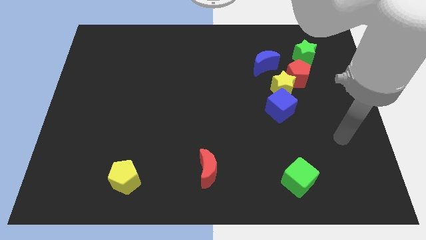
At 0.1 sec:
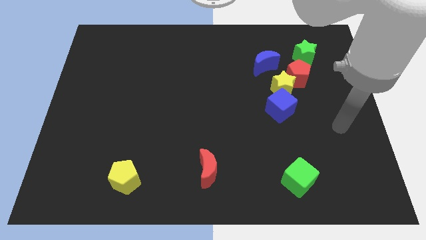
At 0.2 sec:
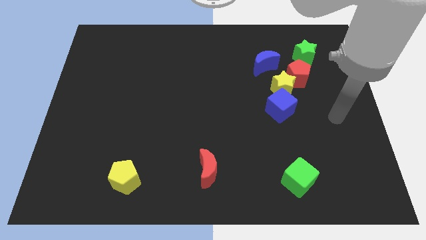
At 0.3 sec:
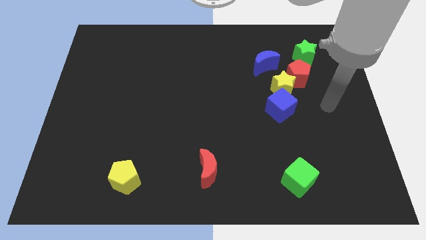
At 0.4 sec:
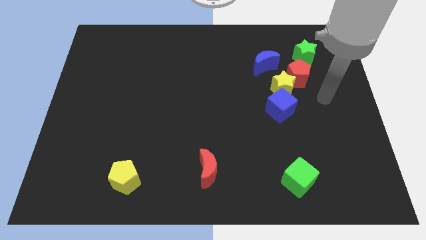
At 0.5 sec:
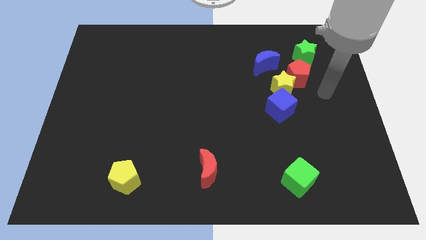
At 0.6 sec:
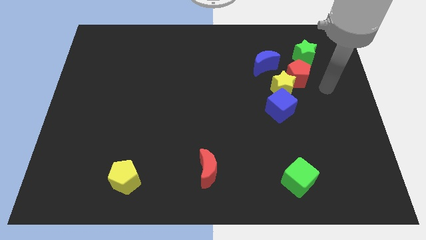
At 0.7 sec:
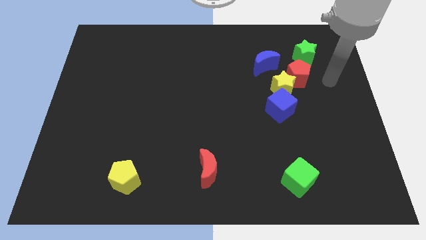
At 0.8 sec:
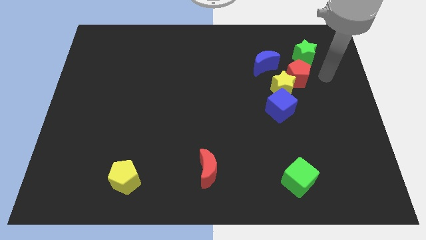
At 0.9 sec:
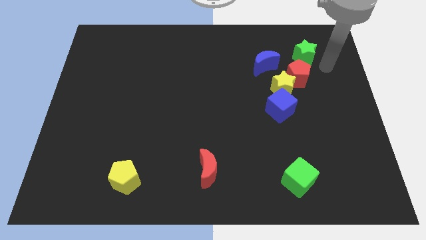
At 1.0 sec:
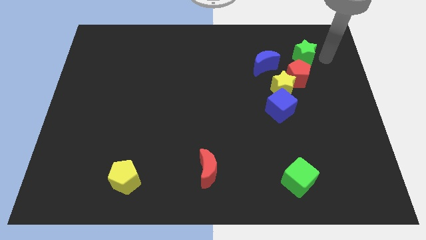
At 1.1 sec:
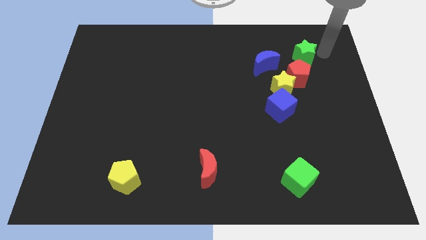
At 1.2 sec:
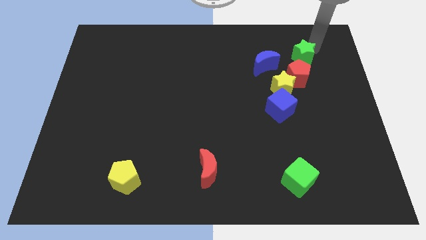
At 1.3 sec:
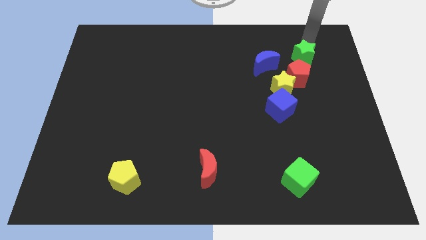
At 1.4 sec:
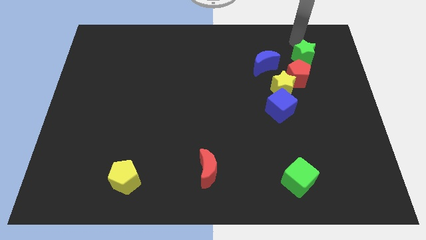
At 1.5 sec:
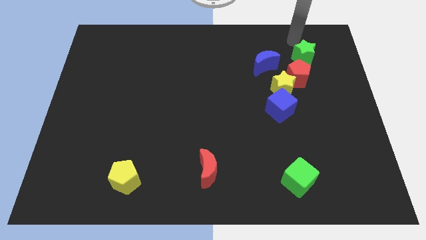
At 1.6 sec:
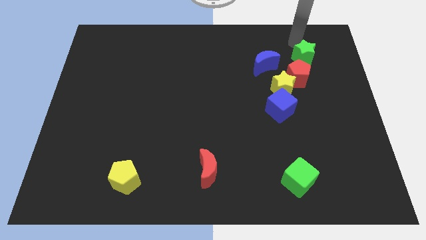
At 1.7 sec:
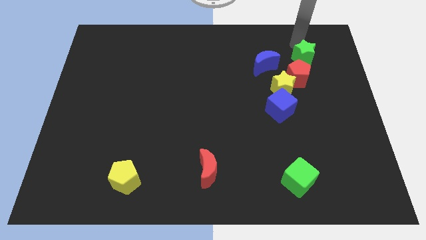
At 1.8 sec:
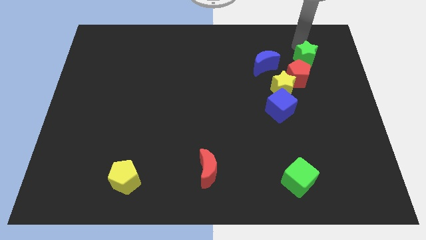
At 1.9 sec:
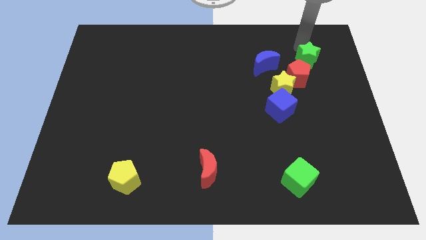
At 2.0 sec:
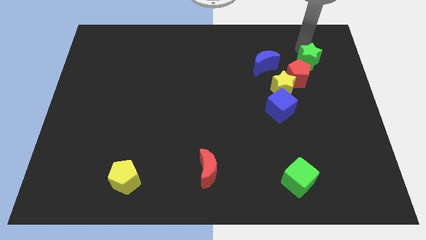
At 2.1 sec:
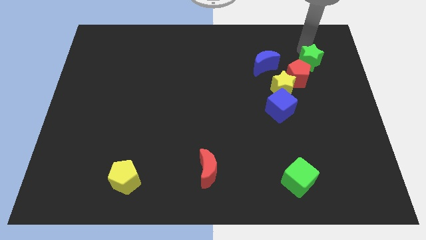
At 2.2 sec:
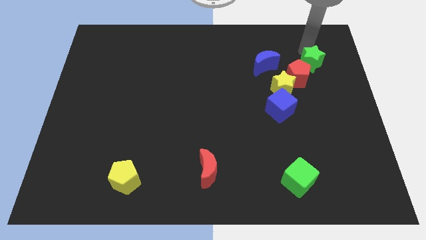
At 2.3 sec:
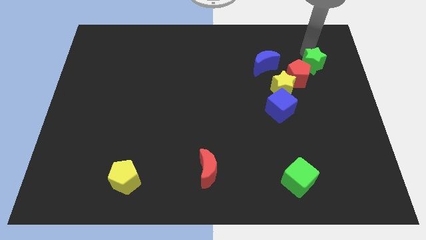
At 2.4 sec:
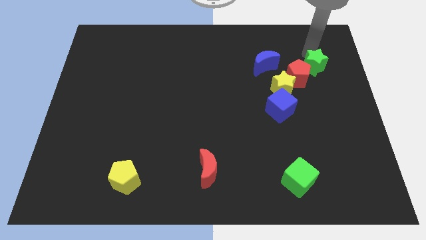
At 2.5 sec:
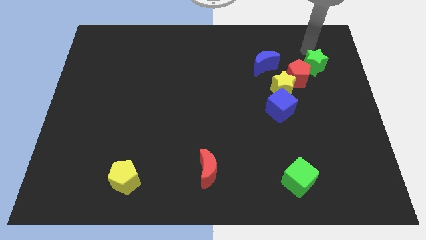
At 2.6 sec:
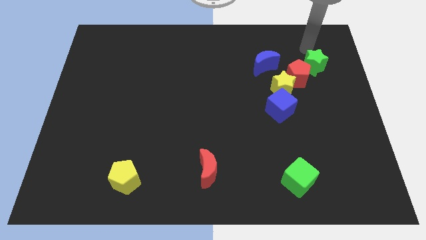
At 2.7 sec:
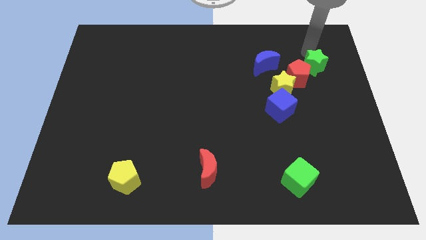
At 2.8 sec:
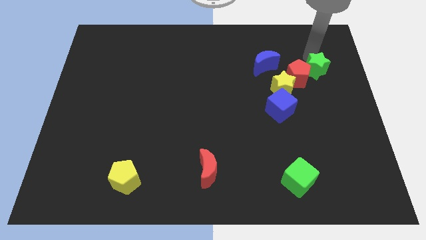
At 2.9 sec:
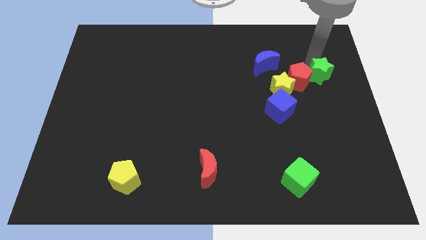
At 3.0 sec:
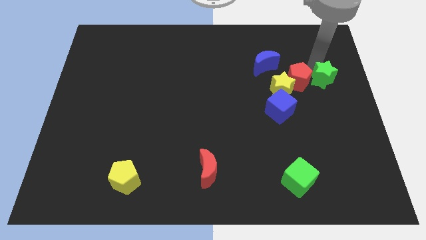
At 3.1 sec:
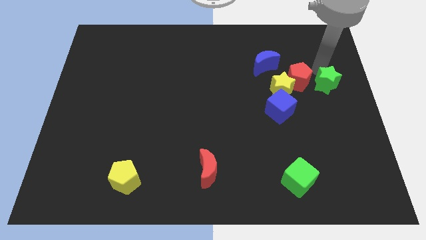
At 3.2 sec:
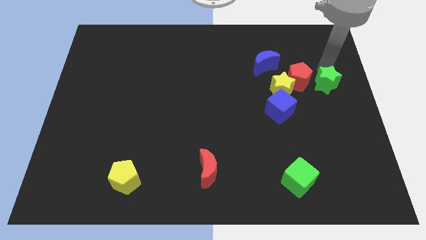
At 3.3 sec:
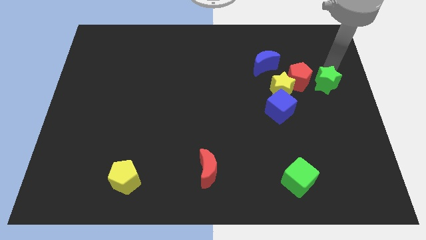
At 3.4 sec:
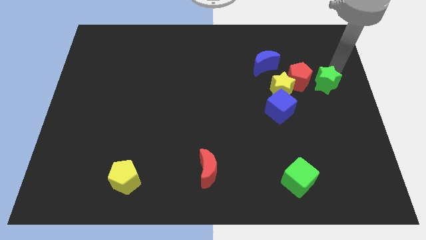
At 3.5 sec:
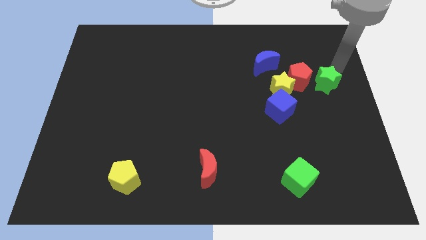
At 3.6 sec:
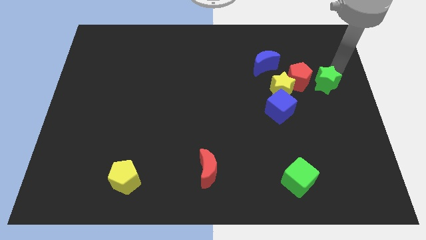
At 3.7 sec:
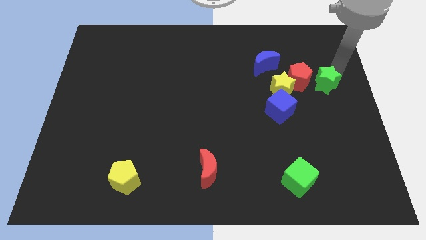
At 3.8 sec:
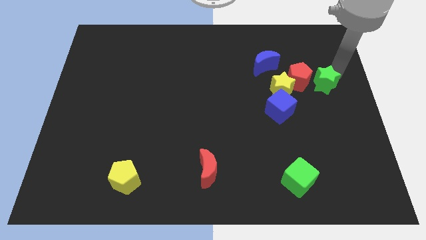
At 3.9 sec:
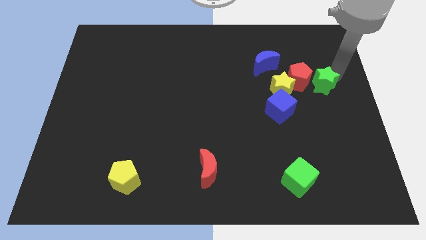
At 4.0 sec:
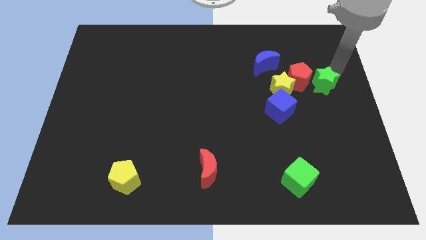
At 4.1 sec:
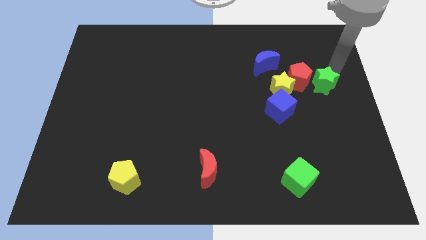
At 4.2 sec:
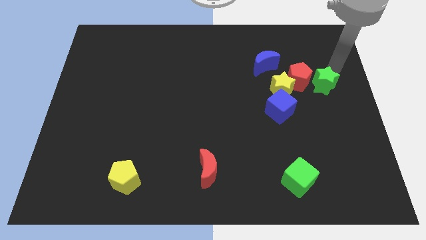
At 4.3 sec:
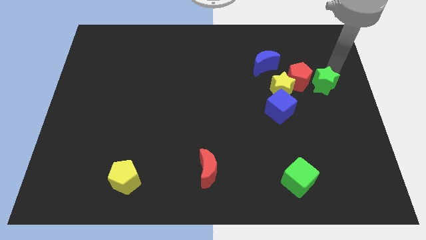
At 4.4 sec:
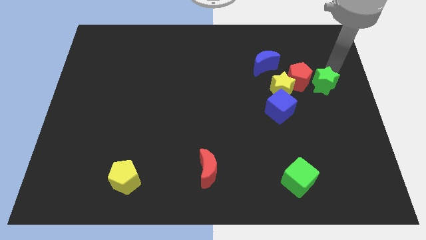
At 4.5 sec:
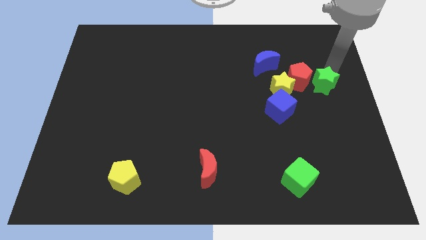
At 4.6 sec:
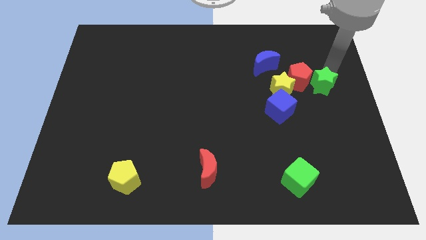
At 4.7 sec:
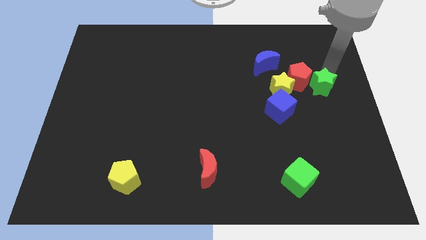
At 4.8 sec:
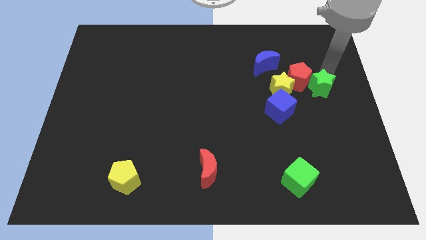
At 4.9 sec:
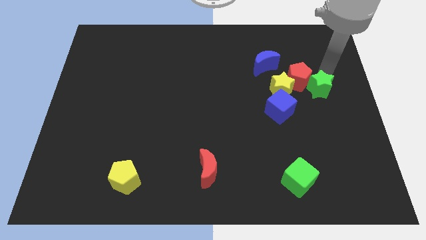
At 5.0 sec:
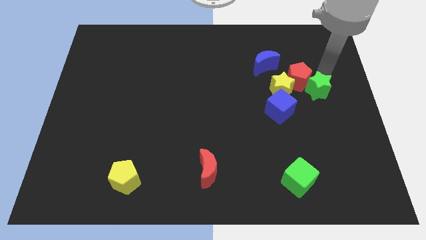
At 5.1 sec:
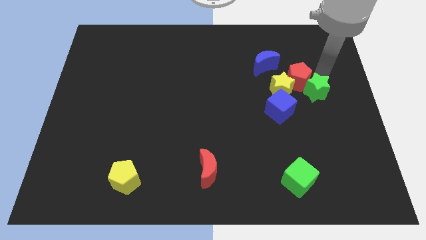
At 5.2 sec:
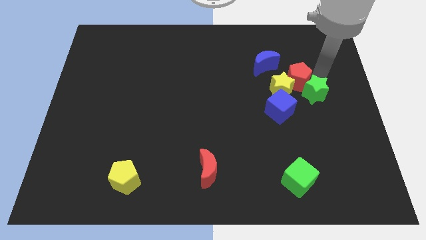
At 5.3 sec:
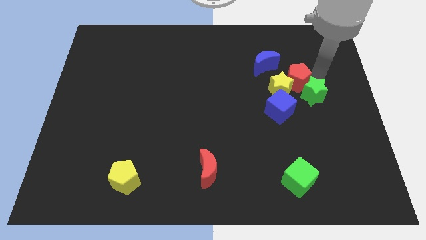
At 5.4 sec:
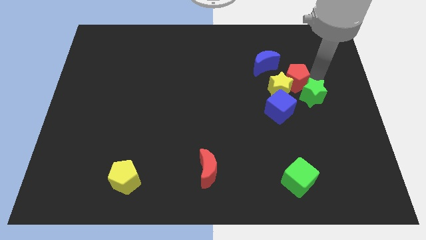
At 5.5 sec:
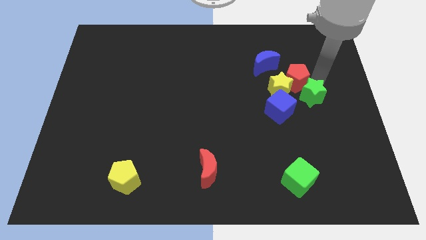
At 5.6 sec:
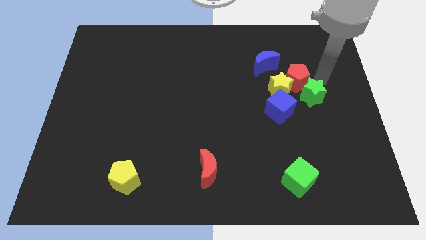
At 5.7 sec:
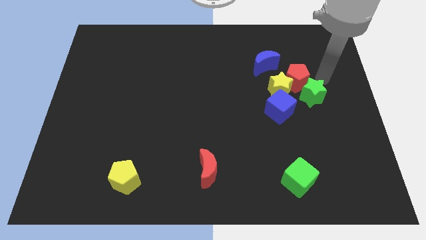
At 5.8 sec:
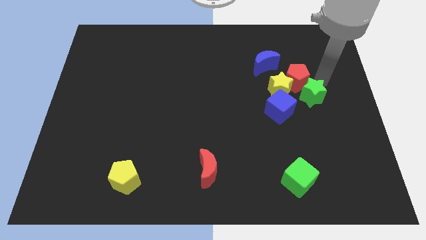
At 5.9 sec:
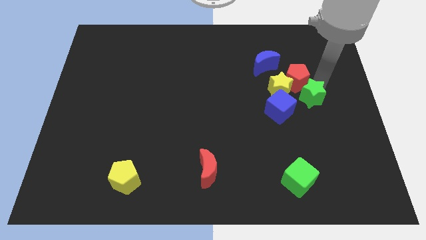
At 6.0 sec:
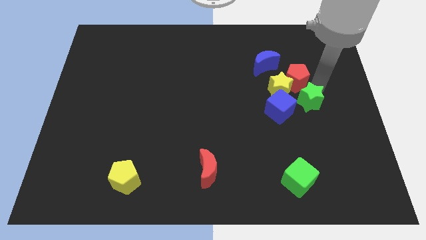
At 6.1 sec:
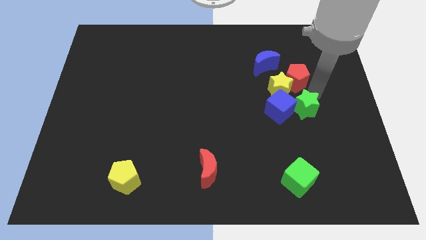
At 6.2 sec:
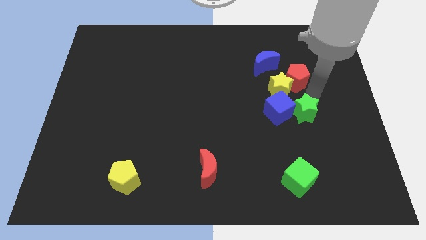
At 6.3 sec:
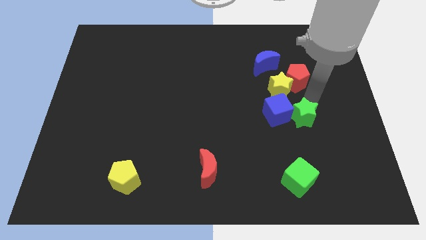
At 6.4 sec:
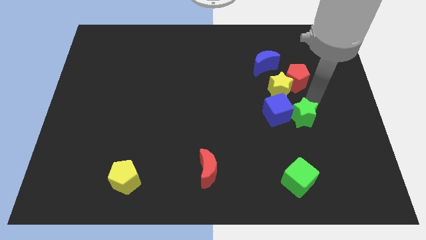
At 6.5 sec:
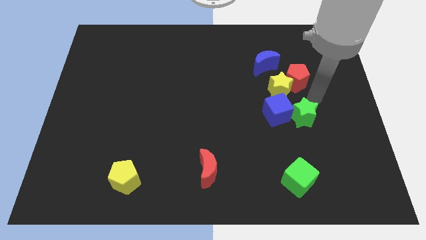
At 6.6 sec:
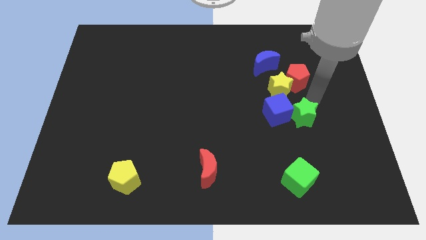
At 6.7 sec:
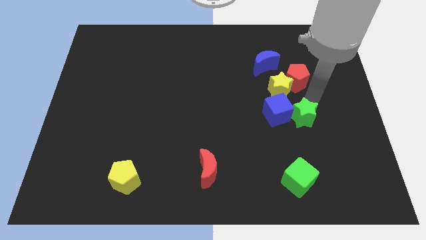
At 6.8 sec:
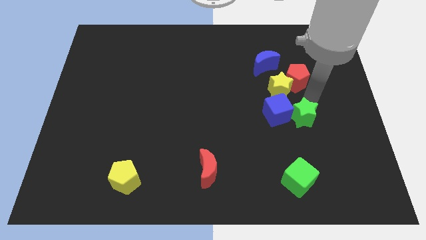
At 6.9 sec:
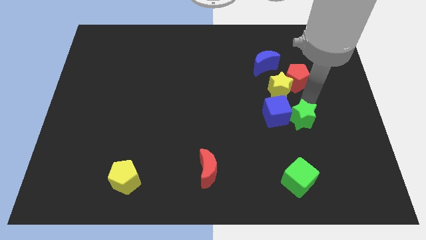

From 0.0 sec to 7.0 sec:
push the green star to the top of the green cube
